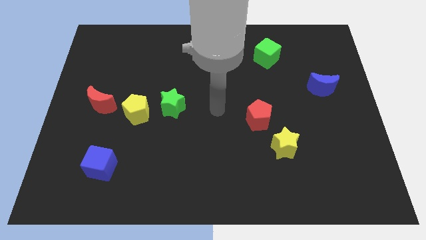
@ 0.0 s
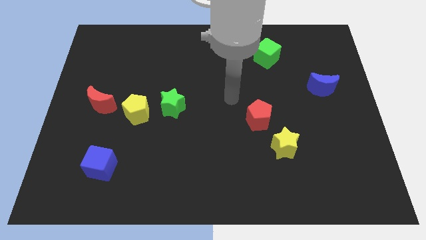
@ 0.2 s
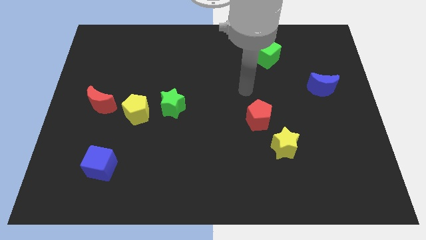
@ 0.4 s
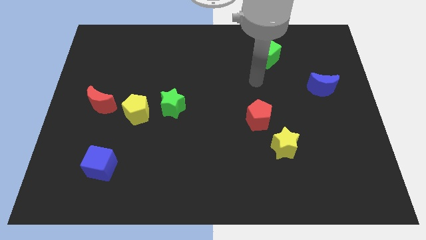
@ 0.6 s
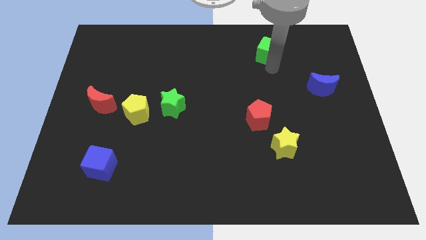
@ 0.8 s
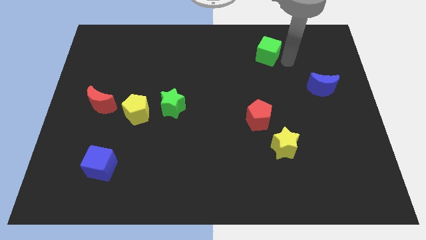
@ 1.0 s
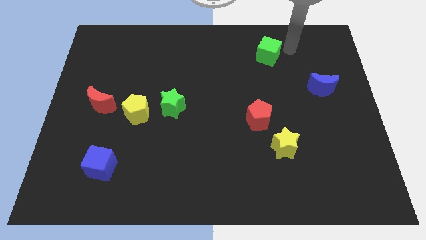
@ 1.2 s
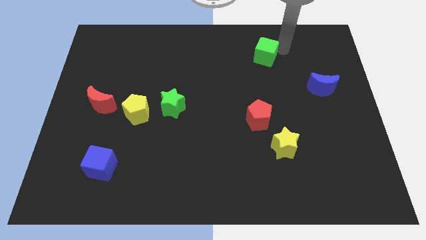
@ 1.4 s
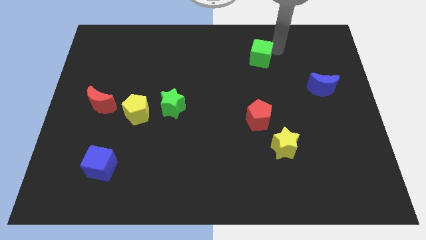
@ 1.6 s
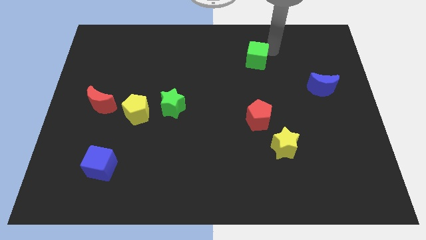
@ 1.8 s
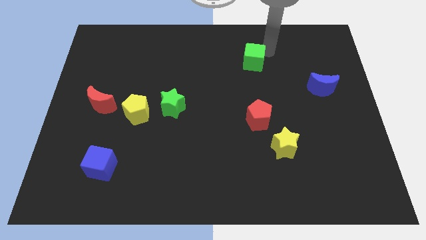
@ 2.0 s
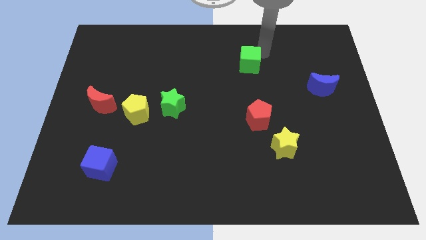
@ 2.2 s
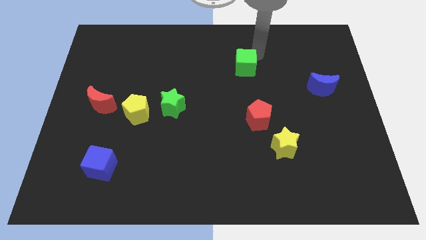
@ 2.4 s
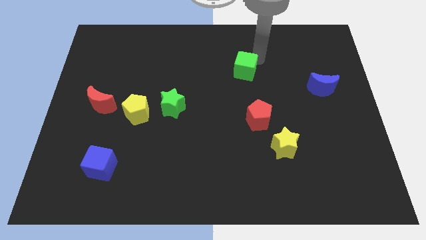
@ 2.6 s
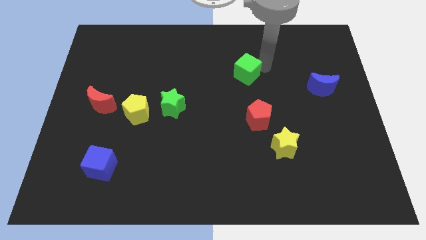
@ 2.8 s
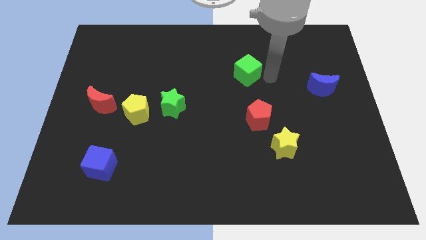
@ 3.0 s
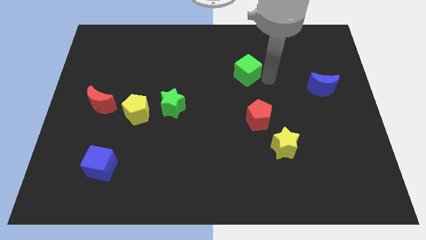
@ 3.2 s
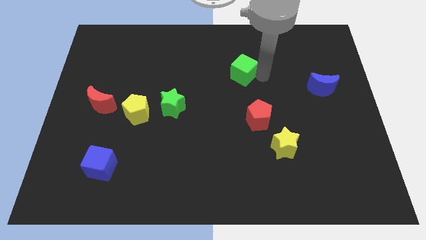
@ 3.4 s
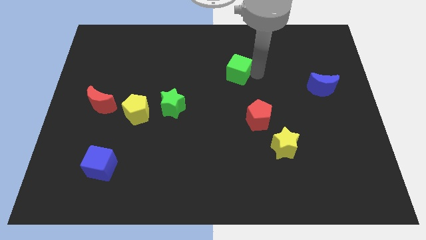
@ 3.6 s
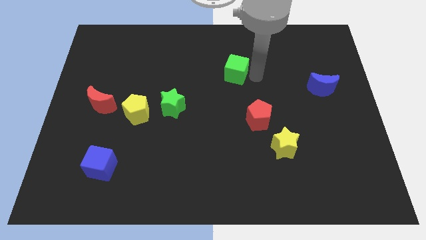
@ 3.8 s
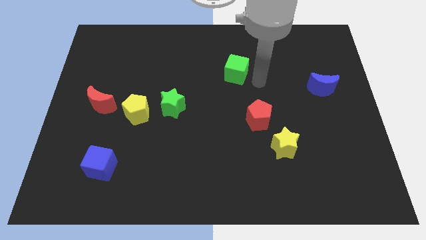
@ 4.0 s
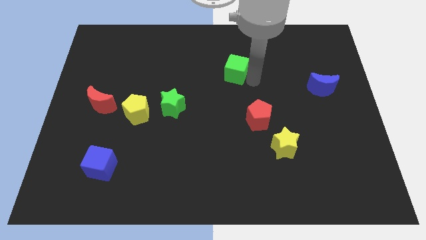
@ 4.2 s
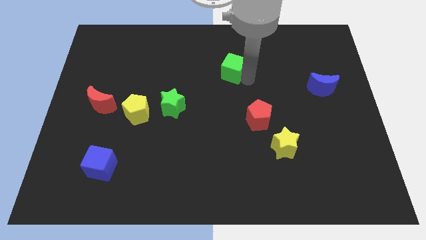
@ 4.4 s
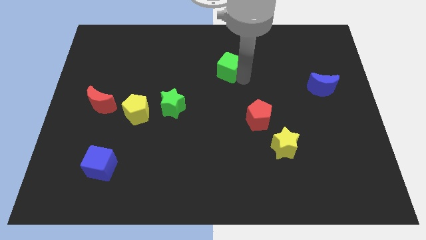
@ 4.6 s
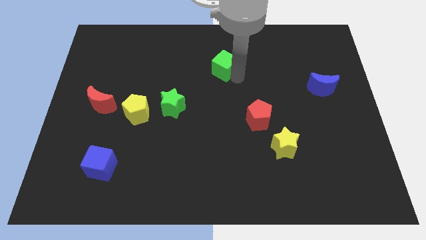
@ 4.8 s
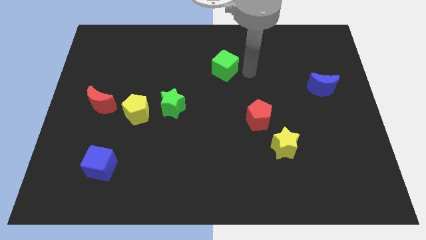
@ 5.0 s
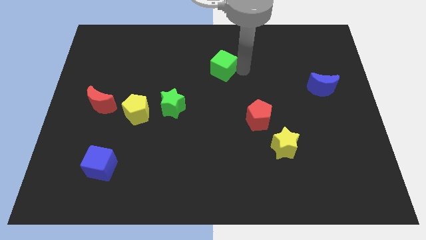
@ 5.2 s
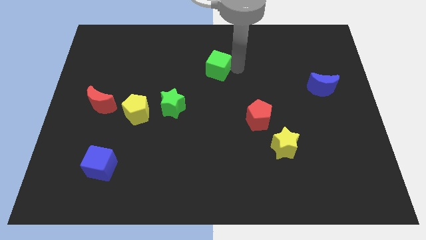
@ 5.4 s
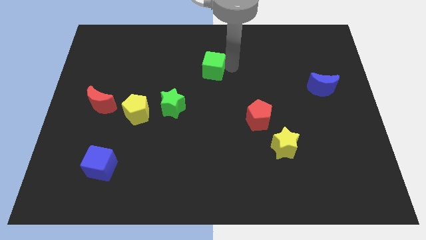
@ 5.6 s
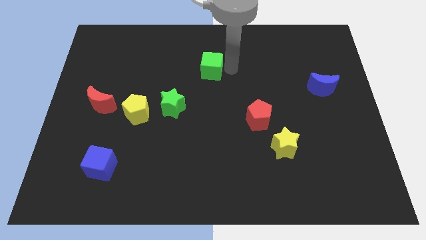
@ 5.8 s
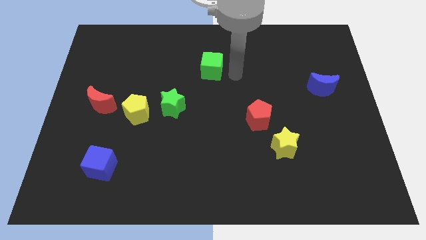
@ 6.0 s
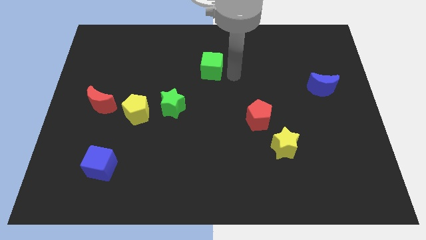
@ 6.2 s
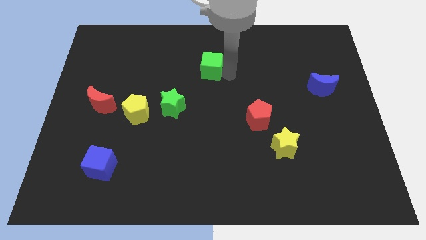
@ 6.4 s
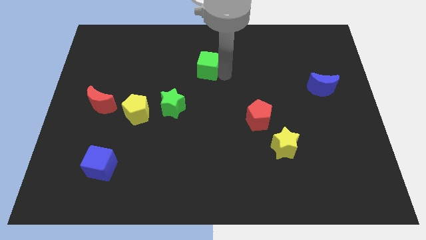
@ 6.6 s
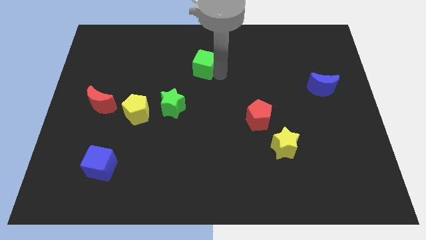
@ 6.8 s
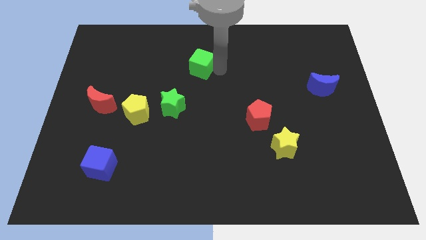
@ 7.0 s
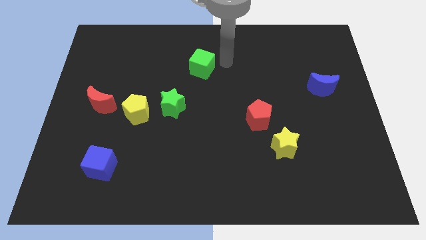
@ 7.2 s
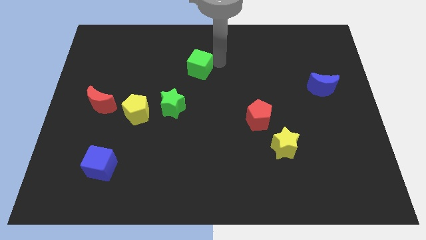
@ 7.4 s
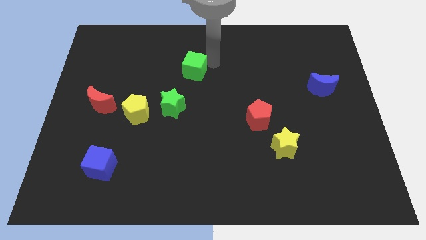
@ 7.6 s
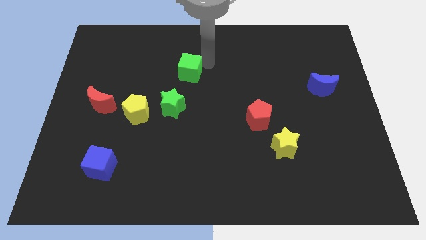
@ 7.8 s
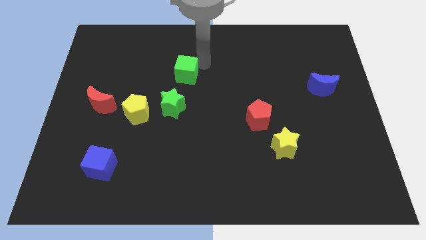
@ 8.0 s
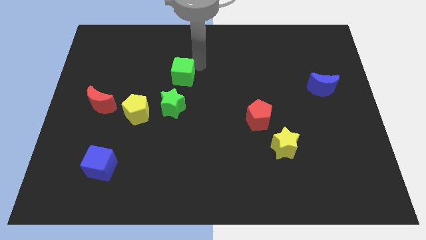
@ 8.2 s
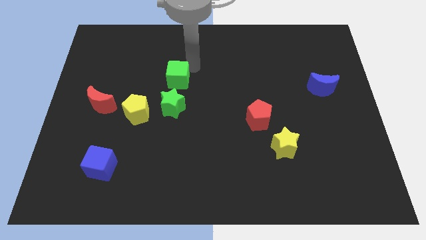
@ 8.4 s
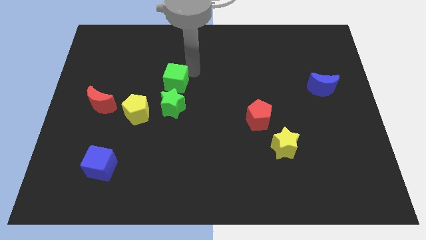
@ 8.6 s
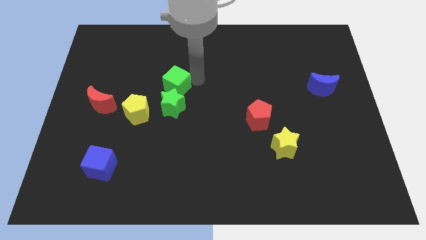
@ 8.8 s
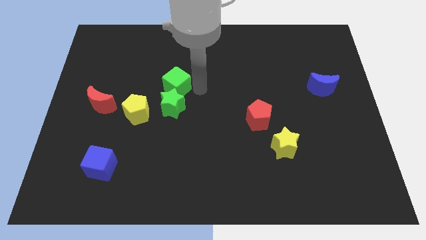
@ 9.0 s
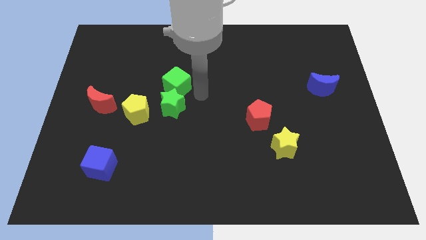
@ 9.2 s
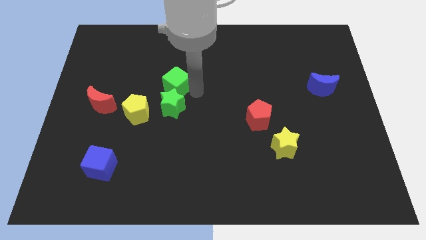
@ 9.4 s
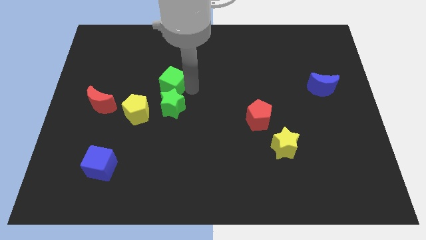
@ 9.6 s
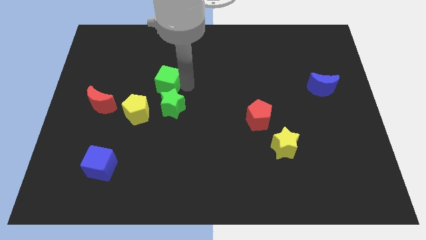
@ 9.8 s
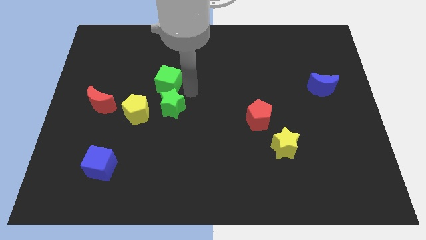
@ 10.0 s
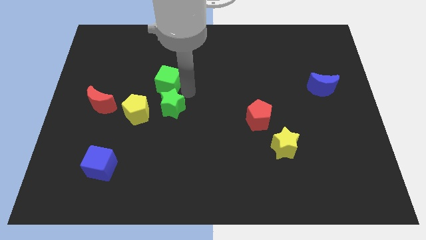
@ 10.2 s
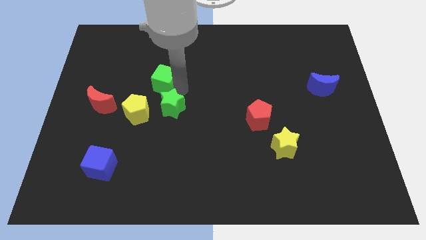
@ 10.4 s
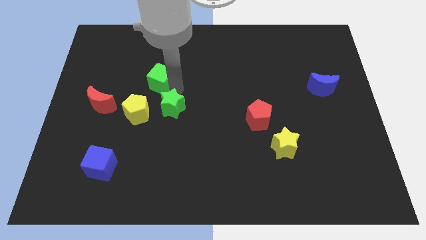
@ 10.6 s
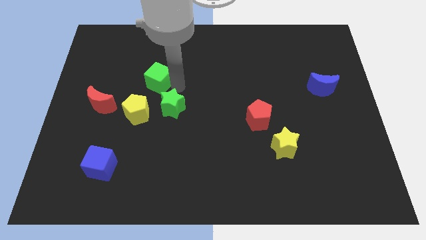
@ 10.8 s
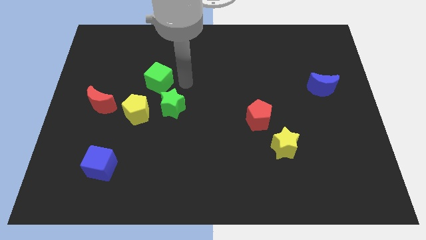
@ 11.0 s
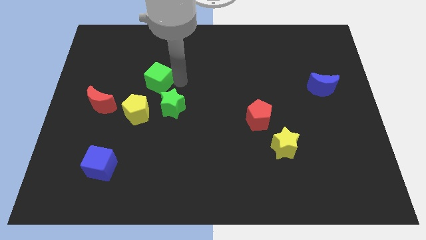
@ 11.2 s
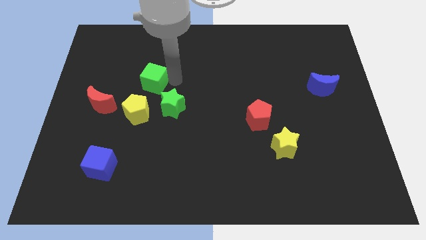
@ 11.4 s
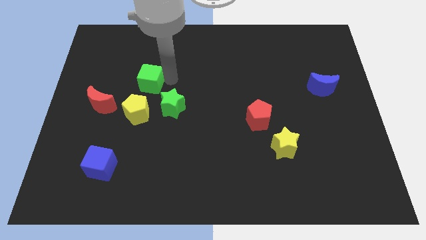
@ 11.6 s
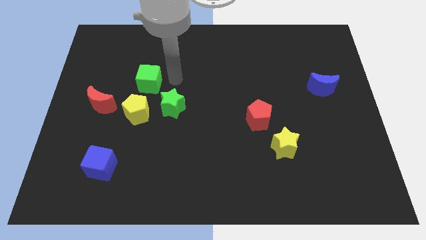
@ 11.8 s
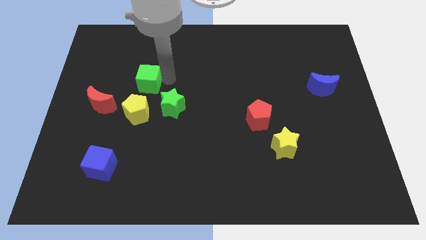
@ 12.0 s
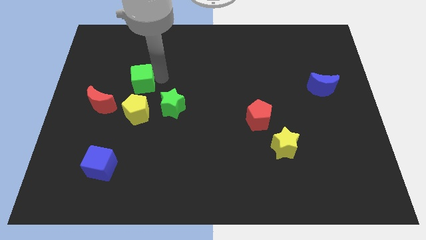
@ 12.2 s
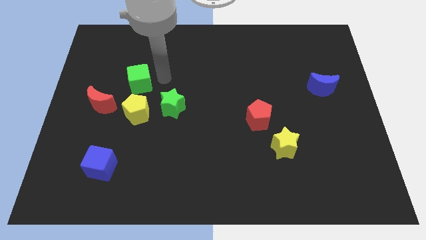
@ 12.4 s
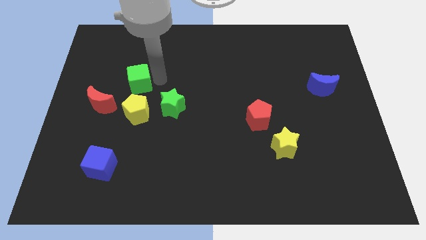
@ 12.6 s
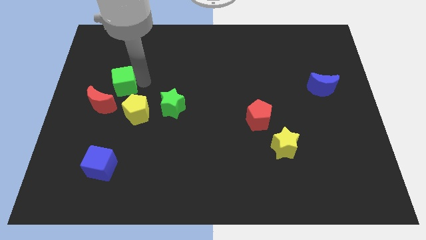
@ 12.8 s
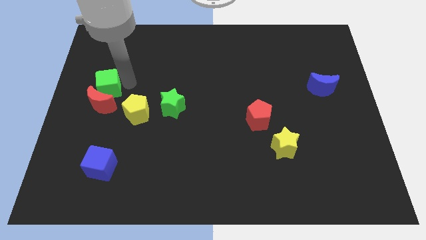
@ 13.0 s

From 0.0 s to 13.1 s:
move the green cube to the center left
